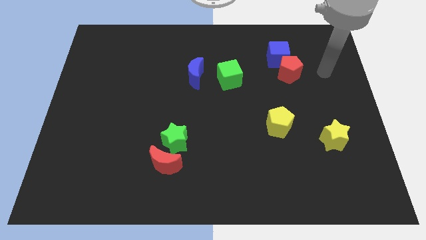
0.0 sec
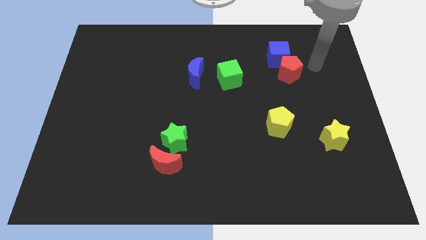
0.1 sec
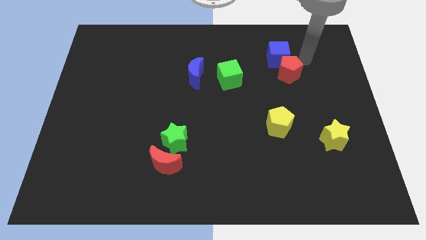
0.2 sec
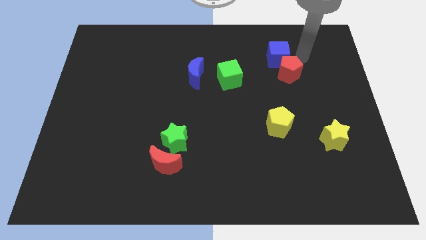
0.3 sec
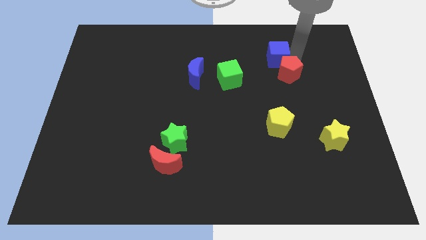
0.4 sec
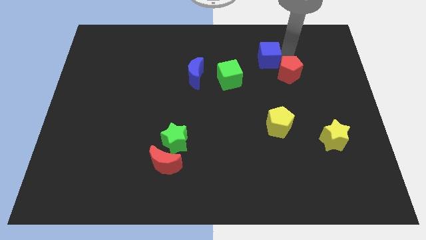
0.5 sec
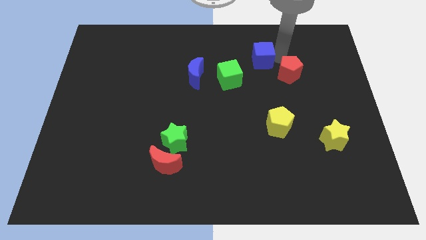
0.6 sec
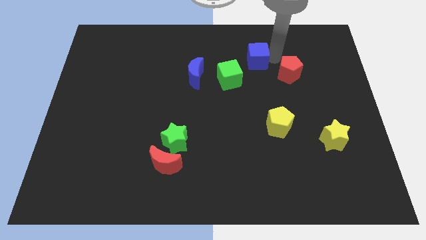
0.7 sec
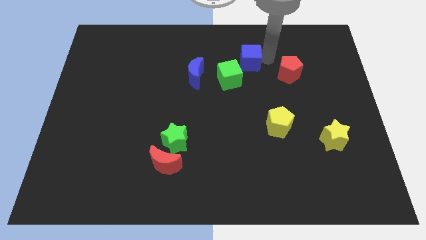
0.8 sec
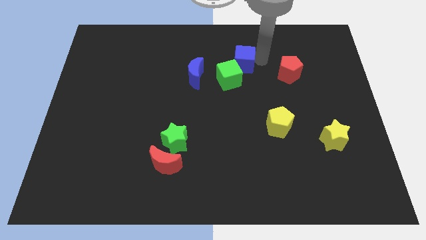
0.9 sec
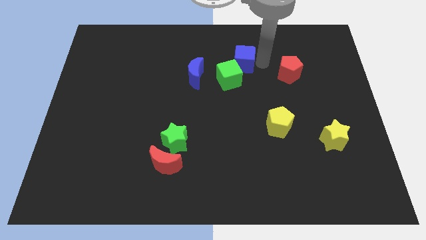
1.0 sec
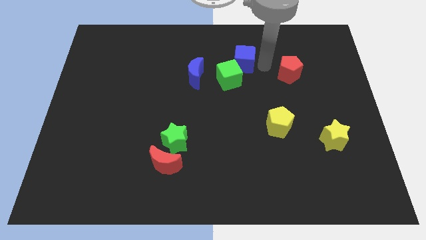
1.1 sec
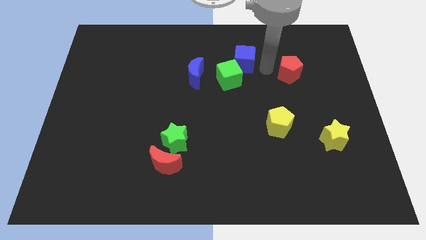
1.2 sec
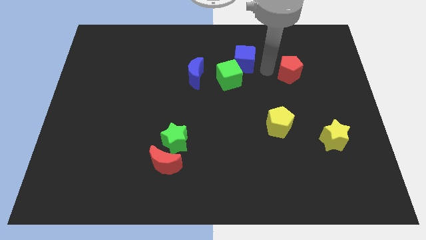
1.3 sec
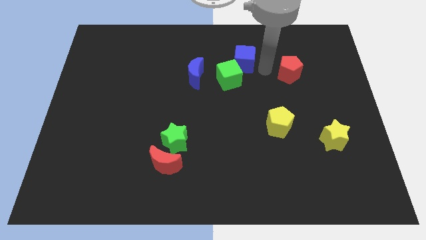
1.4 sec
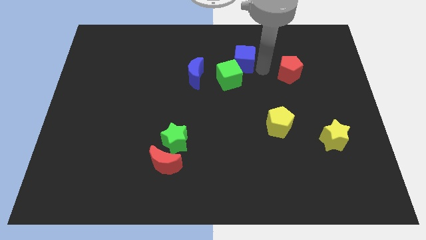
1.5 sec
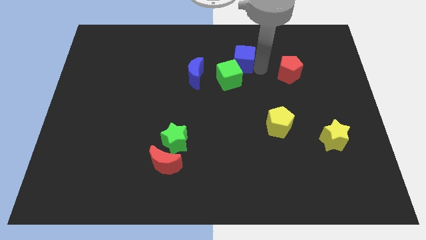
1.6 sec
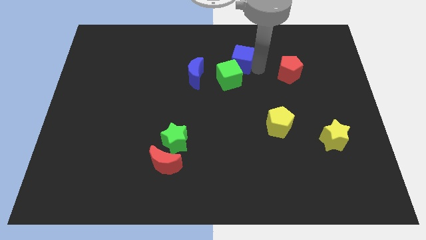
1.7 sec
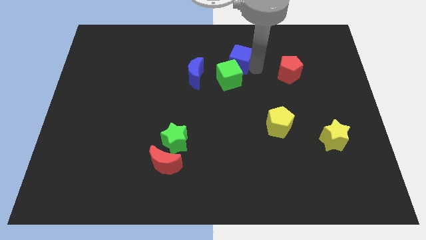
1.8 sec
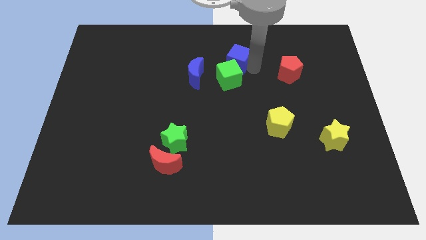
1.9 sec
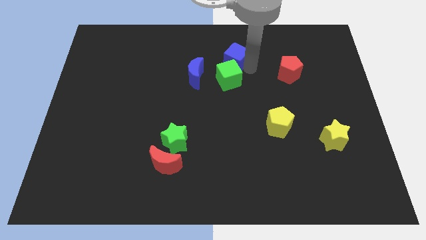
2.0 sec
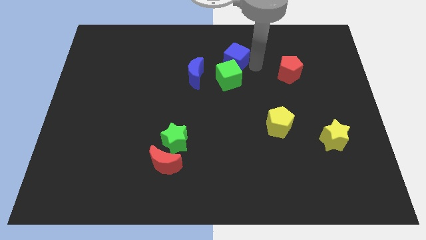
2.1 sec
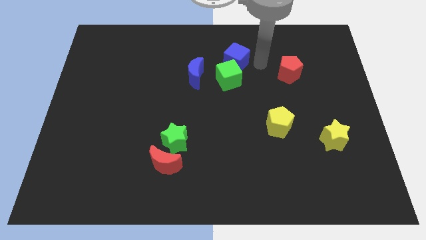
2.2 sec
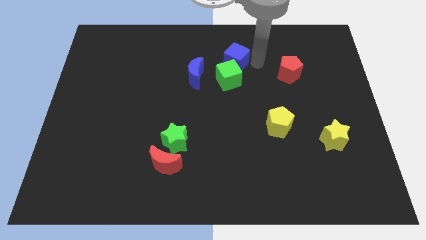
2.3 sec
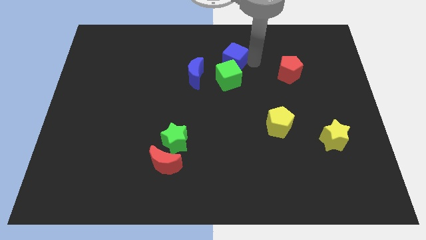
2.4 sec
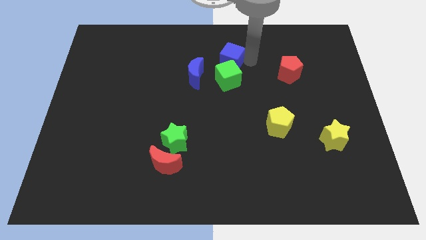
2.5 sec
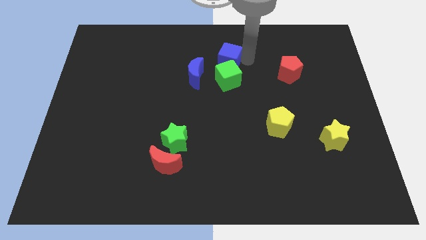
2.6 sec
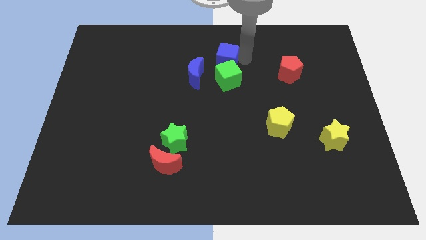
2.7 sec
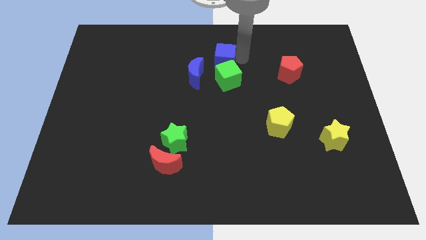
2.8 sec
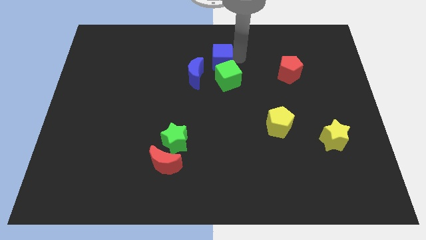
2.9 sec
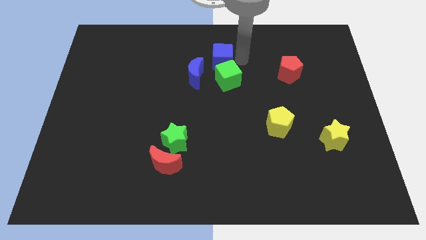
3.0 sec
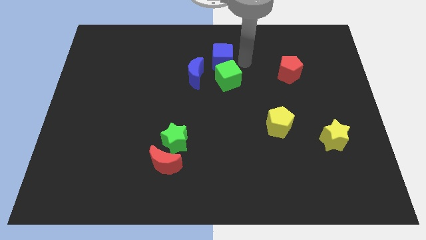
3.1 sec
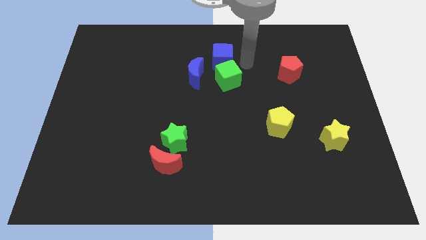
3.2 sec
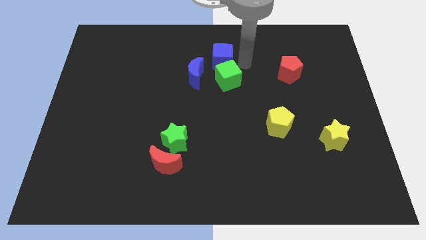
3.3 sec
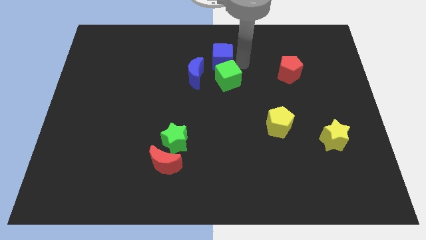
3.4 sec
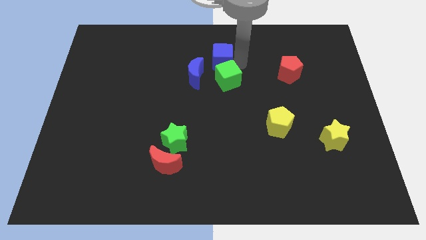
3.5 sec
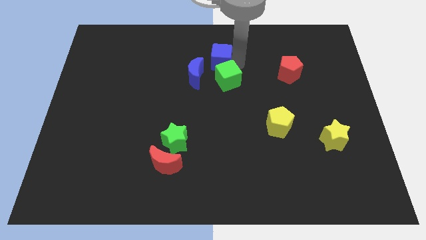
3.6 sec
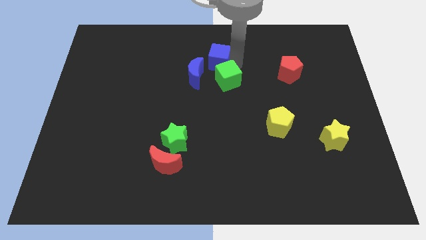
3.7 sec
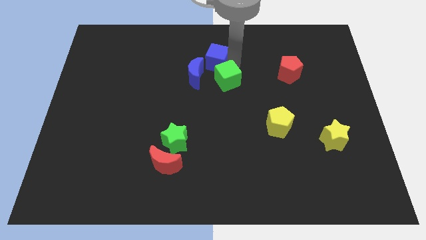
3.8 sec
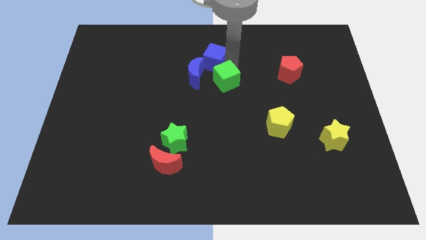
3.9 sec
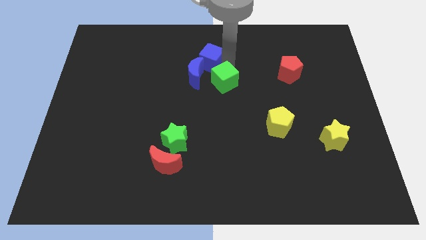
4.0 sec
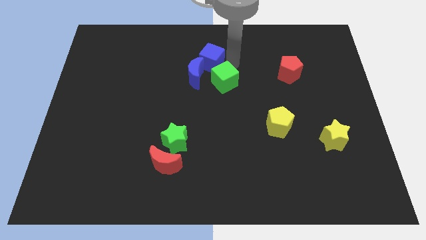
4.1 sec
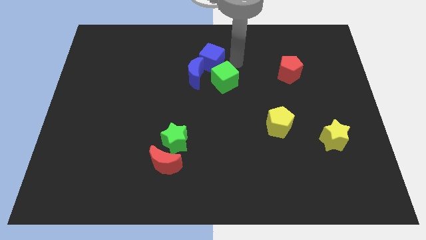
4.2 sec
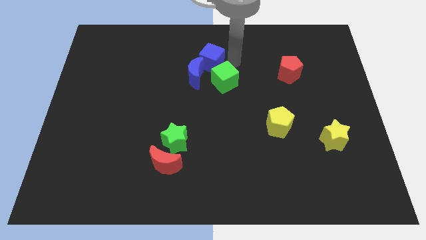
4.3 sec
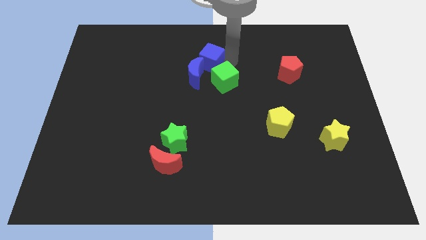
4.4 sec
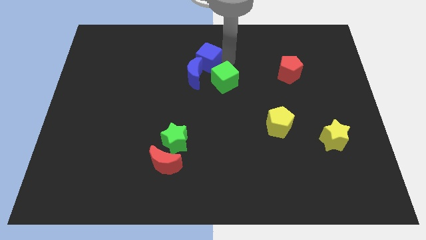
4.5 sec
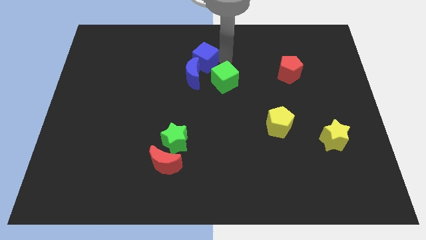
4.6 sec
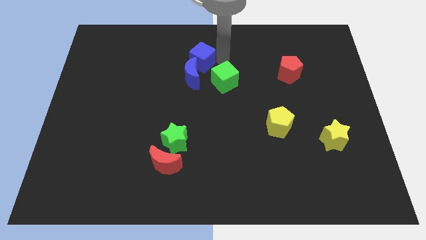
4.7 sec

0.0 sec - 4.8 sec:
slide the blue cube left

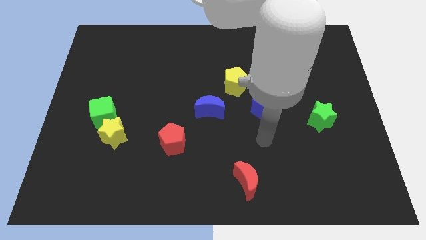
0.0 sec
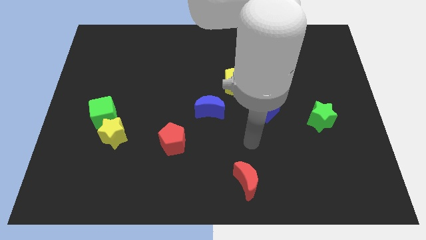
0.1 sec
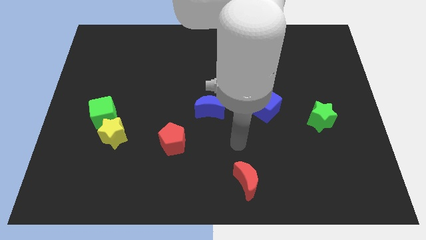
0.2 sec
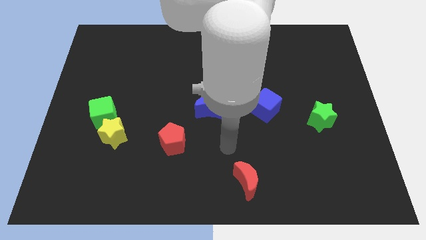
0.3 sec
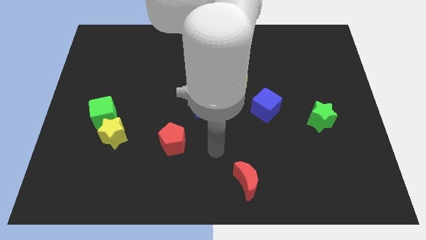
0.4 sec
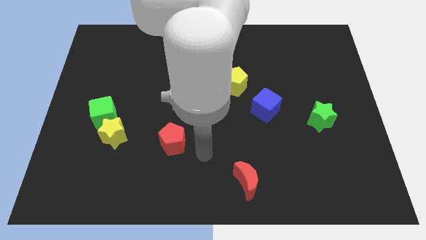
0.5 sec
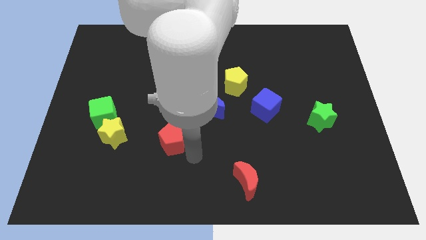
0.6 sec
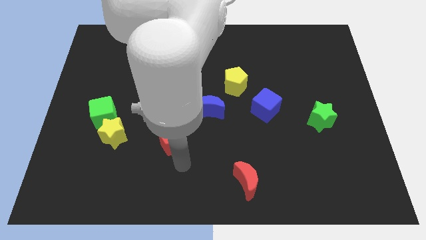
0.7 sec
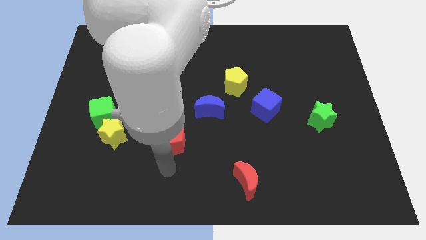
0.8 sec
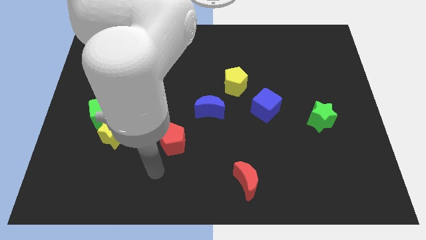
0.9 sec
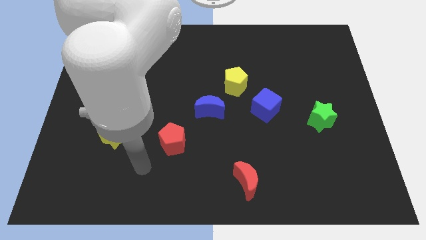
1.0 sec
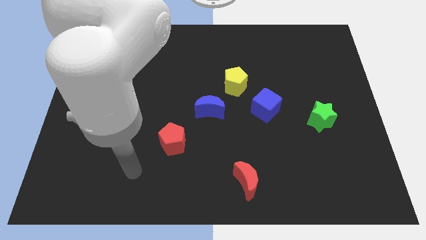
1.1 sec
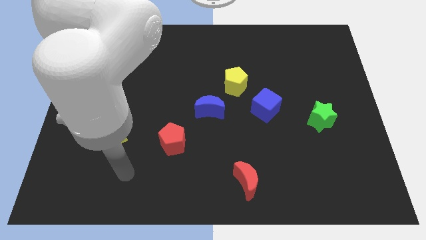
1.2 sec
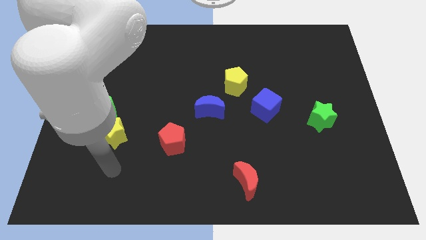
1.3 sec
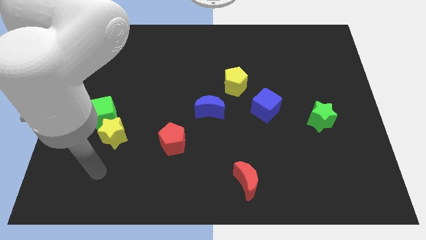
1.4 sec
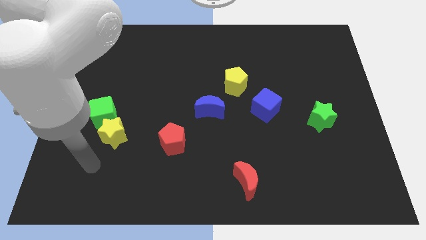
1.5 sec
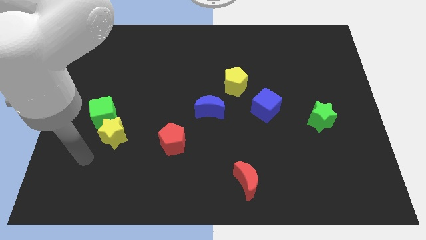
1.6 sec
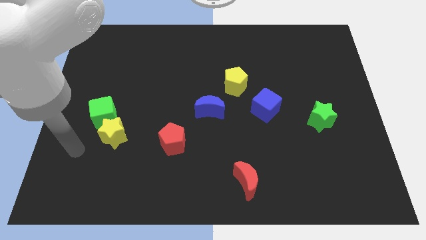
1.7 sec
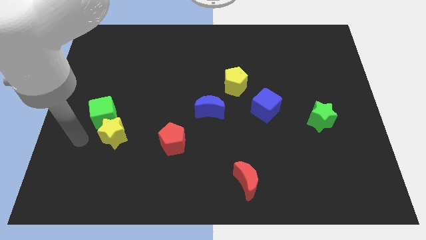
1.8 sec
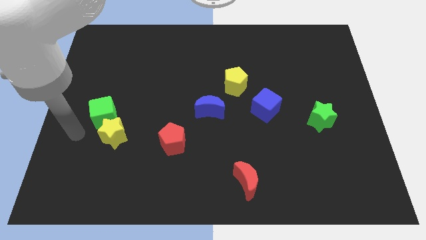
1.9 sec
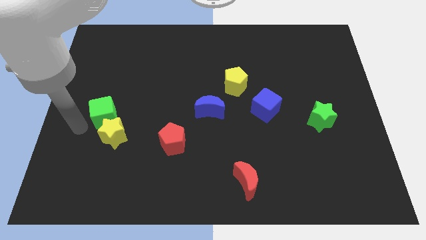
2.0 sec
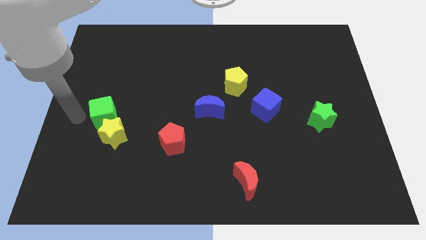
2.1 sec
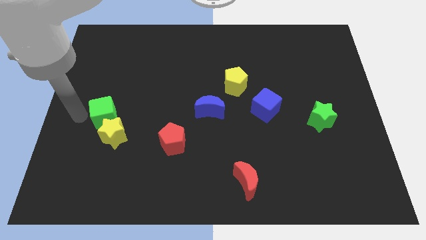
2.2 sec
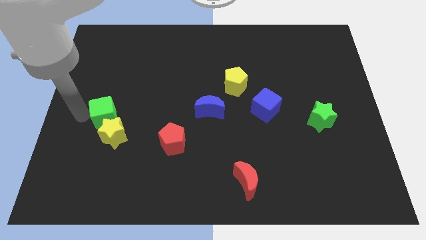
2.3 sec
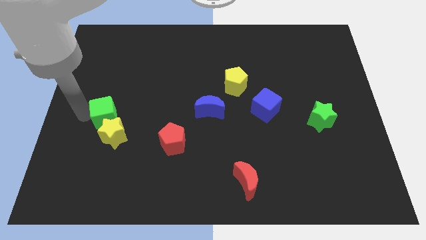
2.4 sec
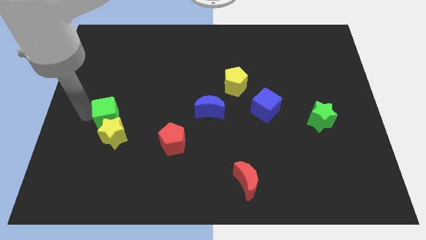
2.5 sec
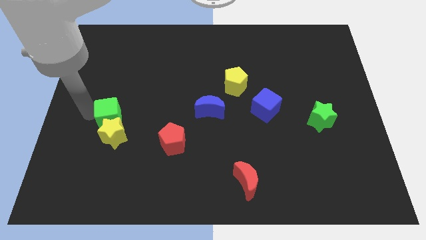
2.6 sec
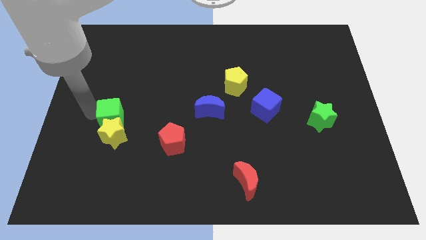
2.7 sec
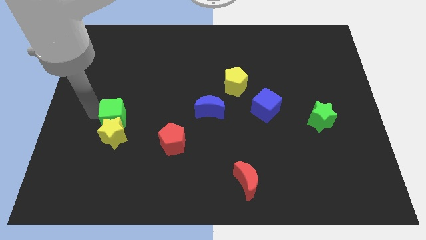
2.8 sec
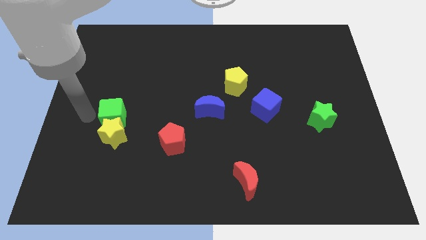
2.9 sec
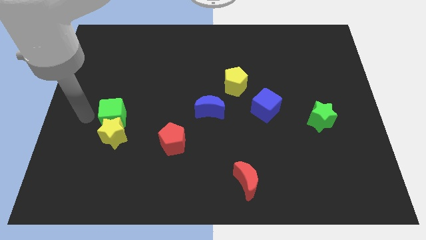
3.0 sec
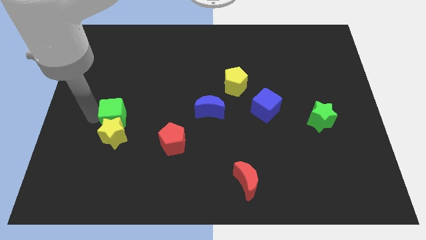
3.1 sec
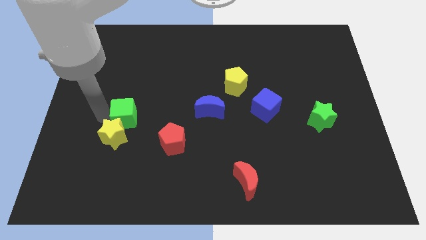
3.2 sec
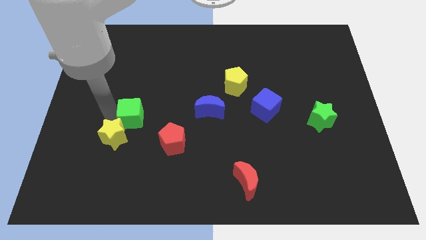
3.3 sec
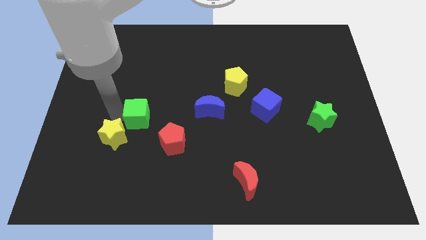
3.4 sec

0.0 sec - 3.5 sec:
move the green cube to the right a little bit
